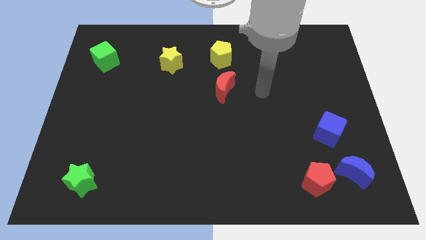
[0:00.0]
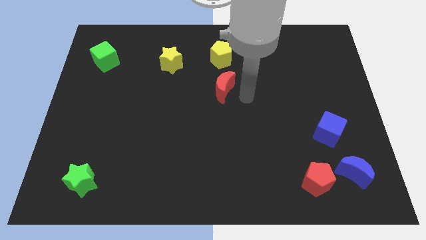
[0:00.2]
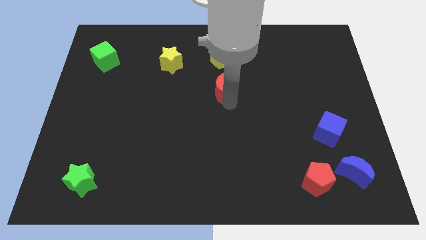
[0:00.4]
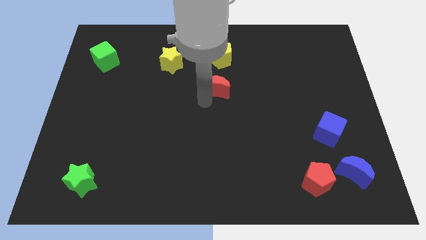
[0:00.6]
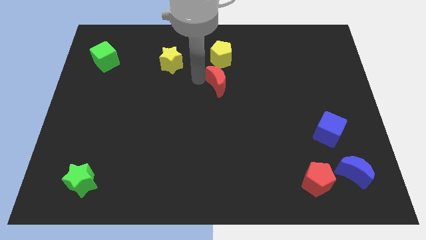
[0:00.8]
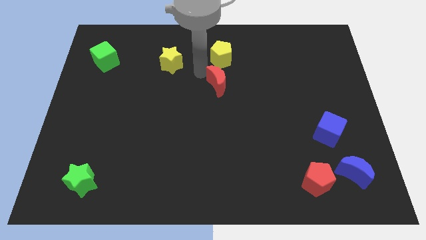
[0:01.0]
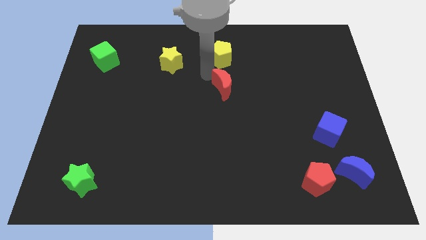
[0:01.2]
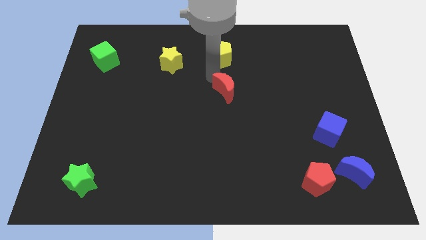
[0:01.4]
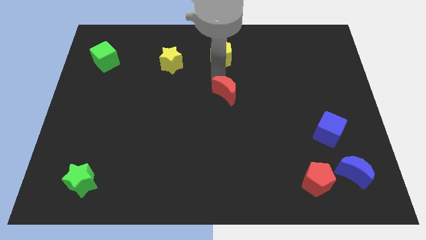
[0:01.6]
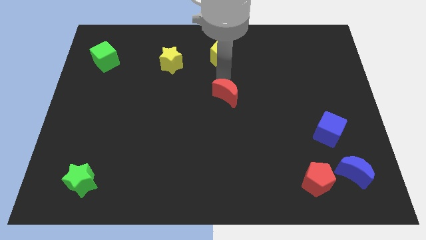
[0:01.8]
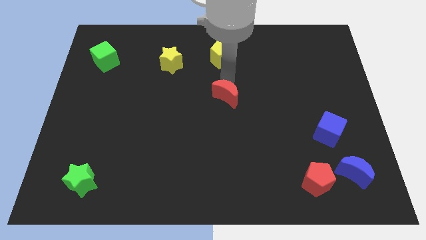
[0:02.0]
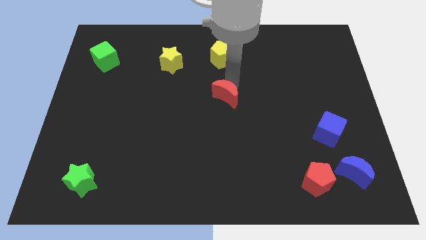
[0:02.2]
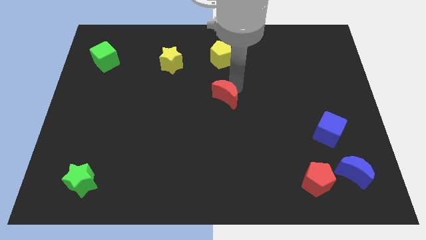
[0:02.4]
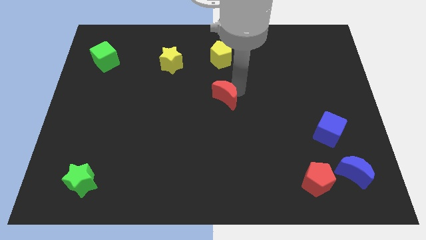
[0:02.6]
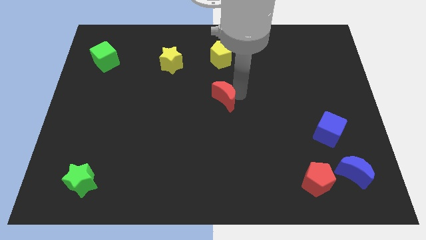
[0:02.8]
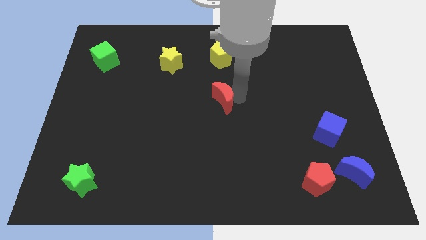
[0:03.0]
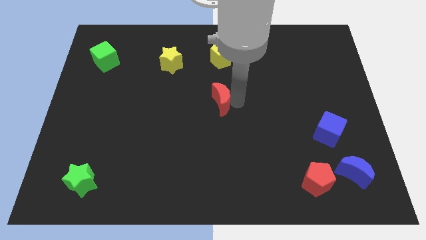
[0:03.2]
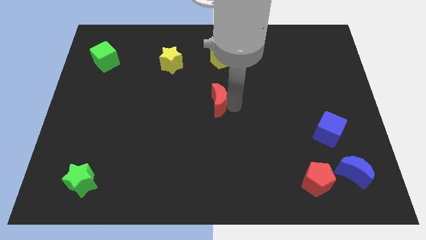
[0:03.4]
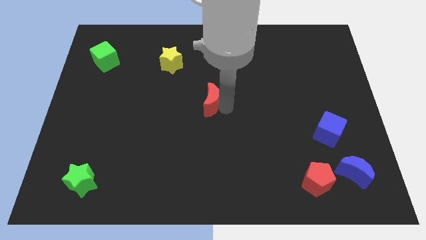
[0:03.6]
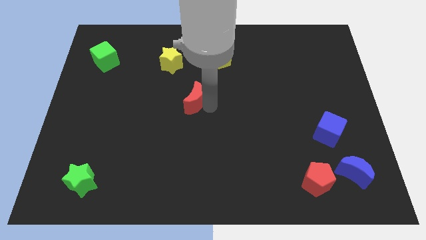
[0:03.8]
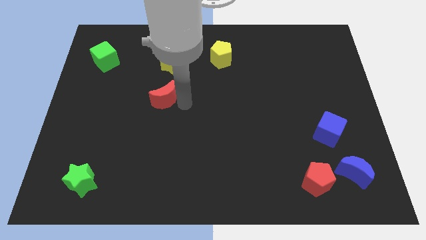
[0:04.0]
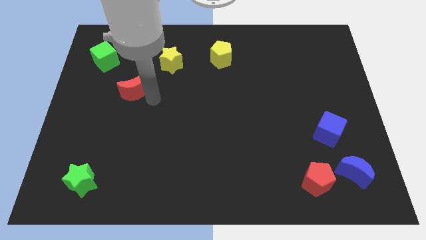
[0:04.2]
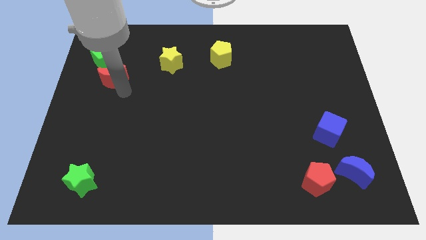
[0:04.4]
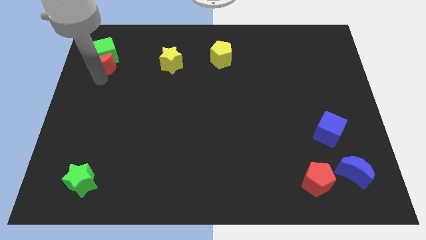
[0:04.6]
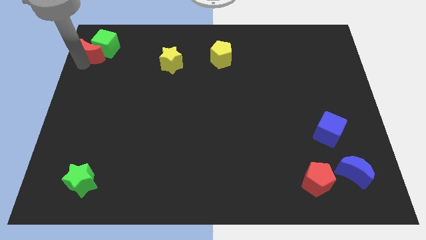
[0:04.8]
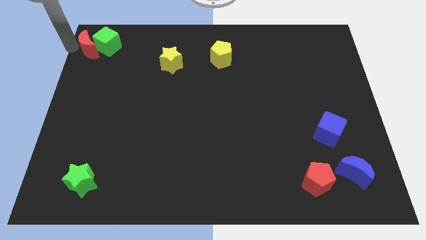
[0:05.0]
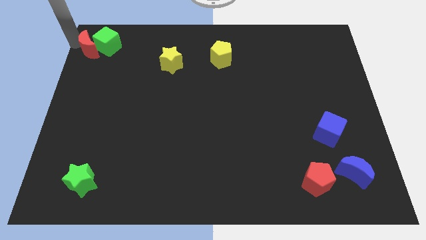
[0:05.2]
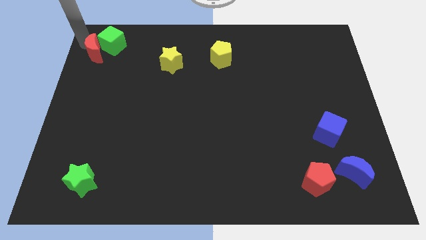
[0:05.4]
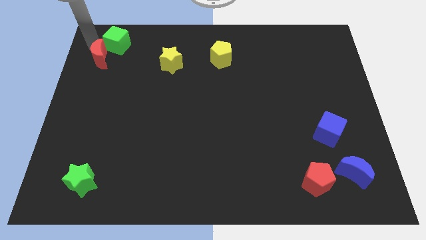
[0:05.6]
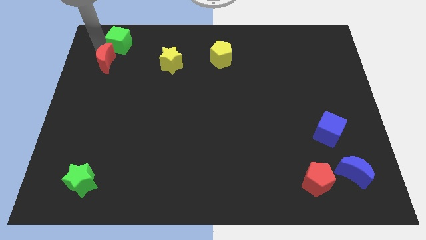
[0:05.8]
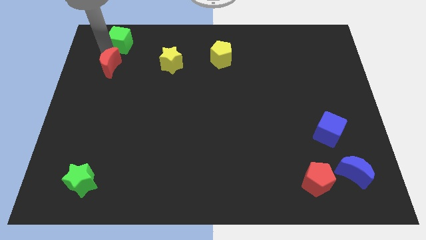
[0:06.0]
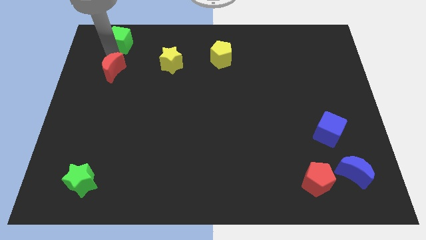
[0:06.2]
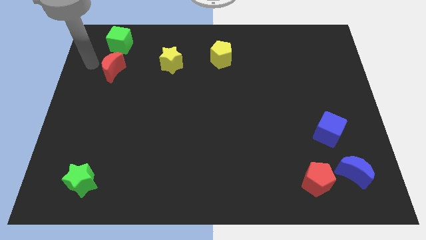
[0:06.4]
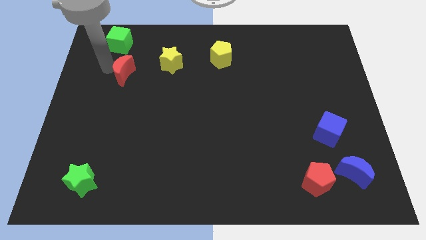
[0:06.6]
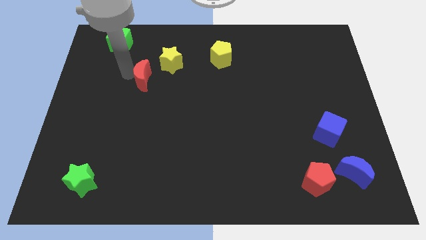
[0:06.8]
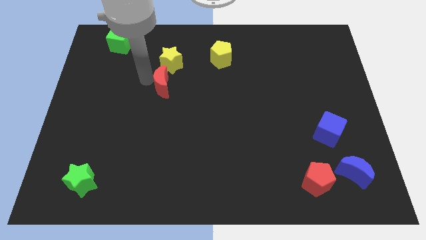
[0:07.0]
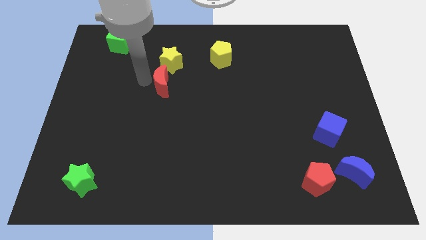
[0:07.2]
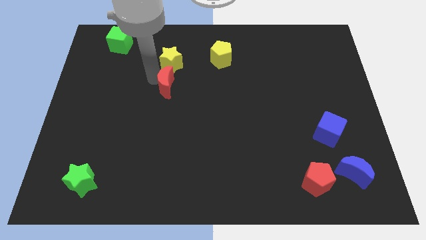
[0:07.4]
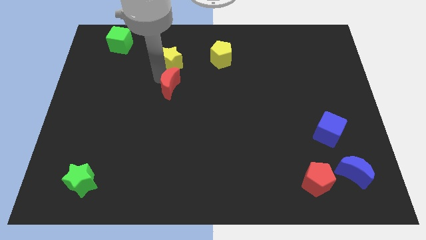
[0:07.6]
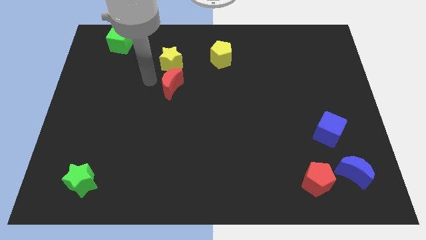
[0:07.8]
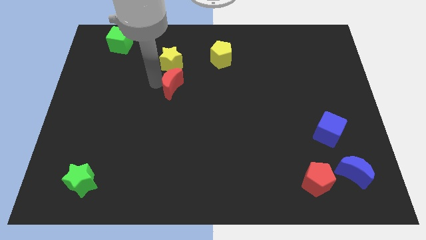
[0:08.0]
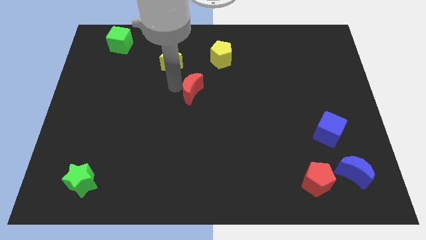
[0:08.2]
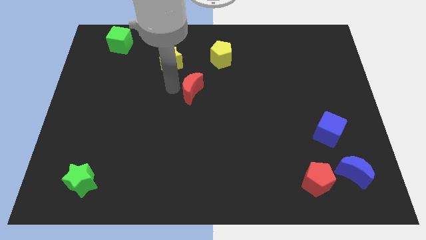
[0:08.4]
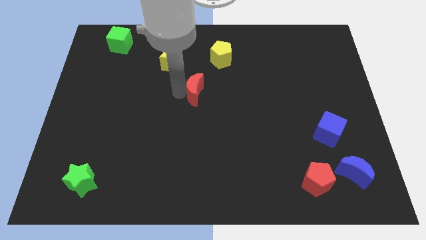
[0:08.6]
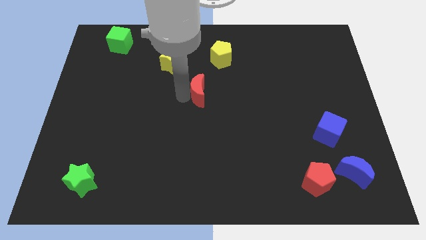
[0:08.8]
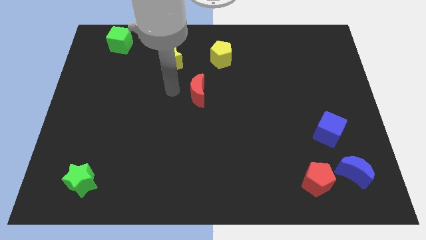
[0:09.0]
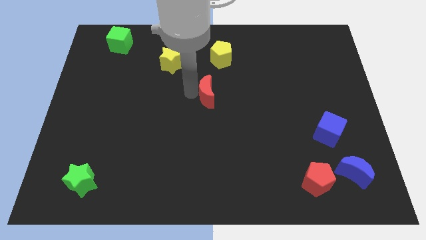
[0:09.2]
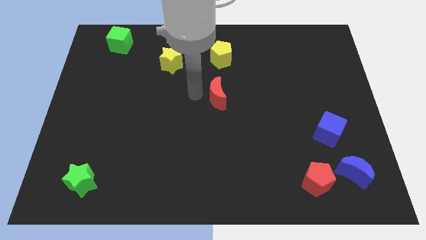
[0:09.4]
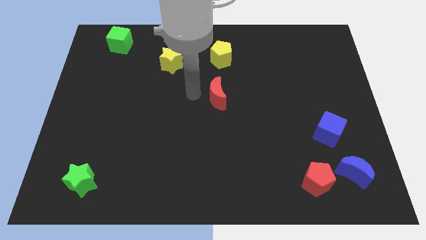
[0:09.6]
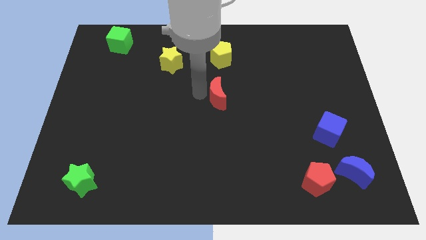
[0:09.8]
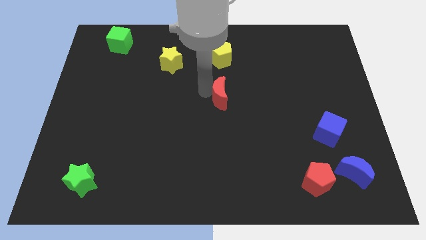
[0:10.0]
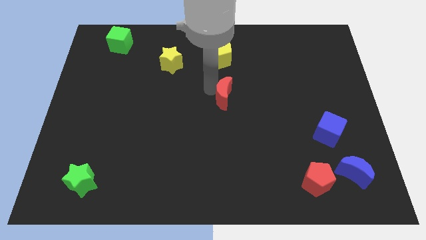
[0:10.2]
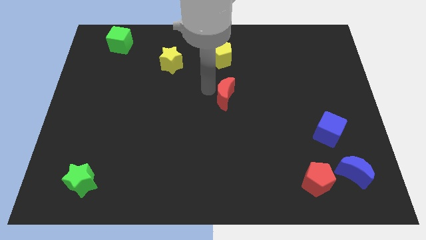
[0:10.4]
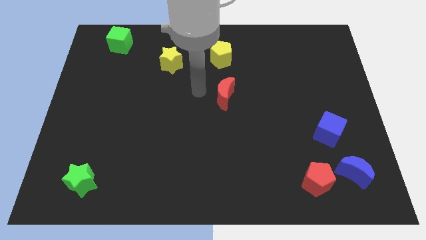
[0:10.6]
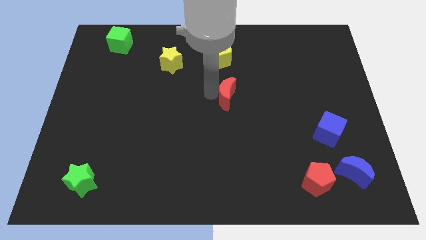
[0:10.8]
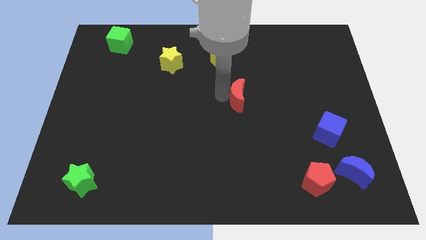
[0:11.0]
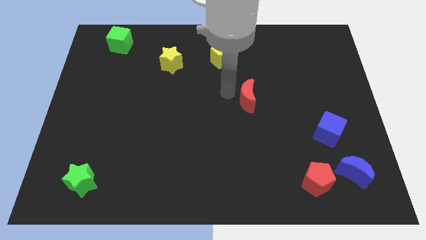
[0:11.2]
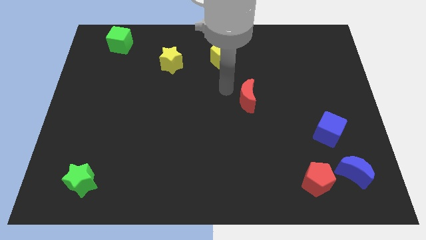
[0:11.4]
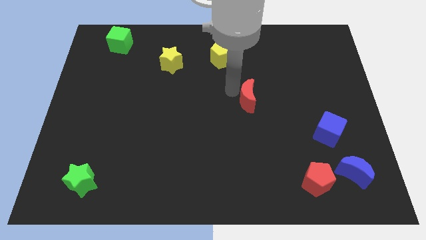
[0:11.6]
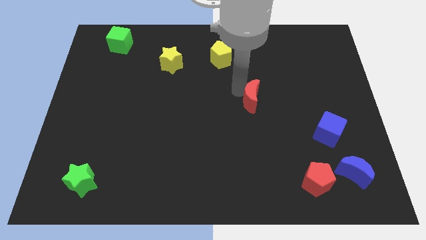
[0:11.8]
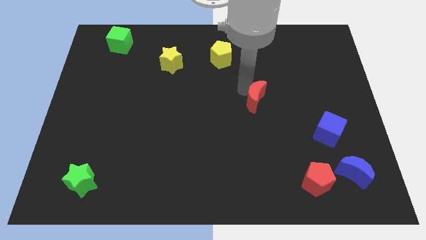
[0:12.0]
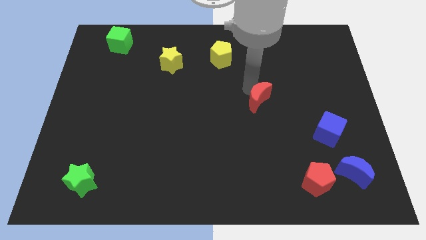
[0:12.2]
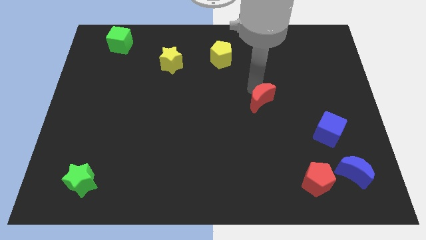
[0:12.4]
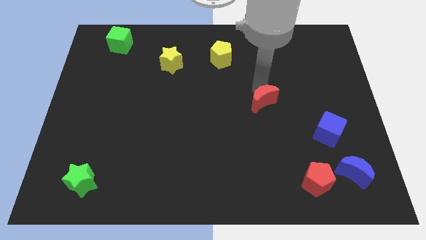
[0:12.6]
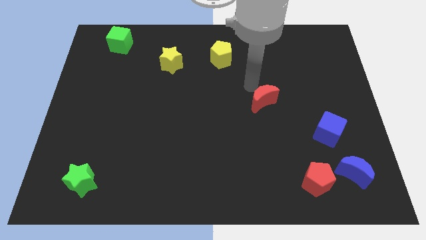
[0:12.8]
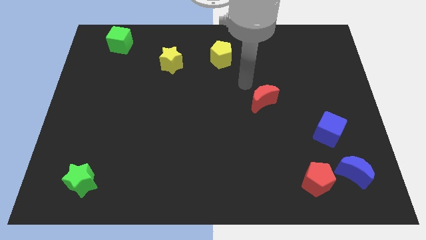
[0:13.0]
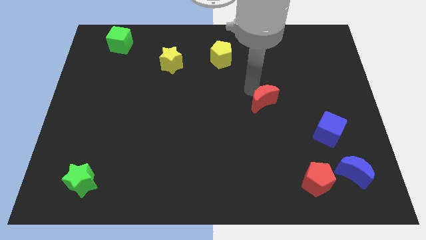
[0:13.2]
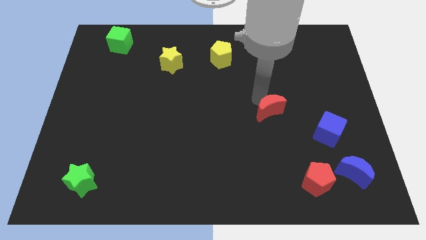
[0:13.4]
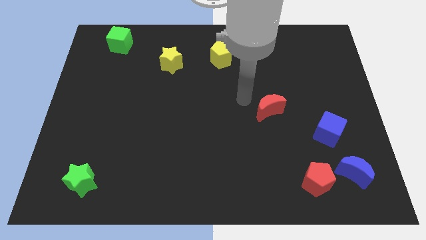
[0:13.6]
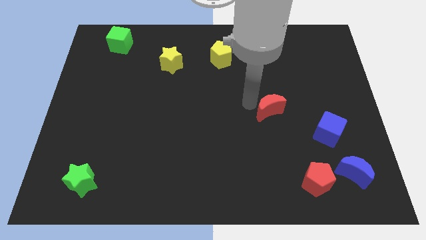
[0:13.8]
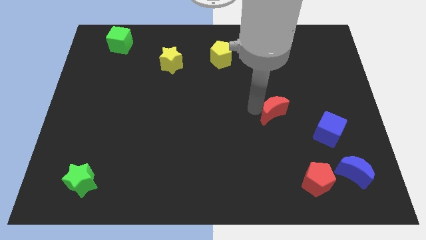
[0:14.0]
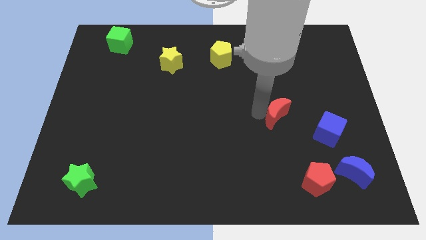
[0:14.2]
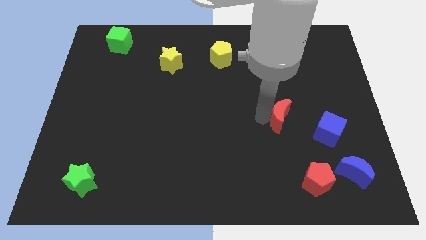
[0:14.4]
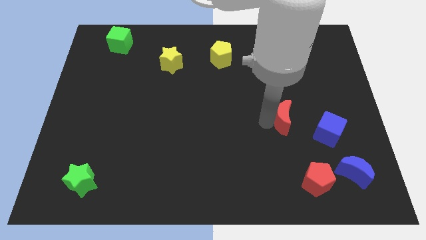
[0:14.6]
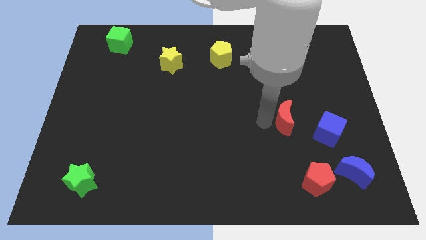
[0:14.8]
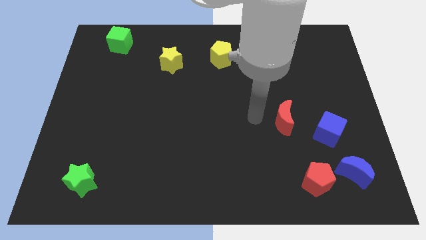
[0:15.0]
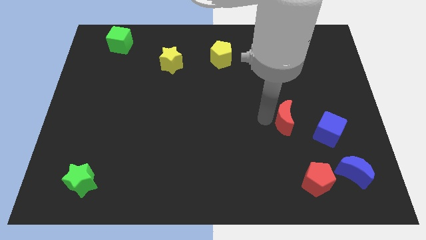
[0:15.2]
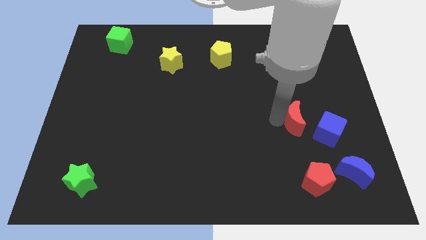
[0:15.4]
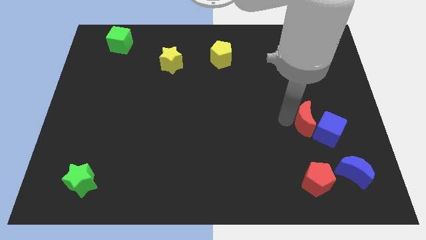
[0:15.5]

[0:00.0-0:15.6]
slide the red moon close to the blue cube
